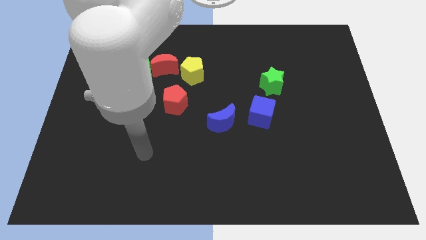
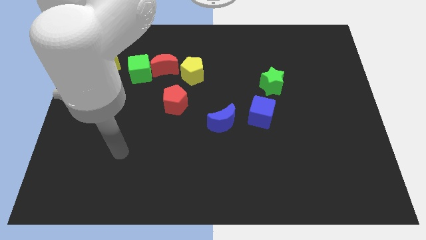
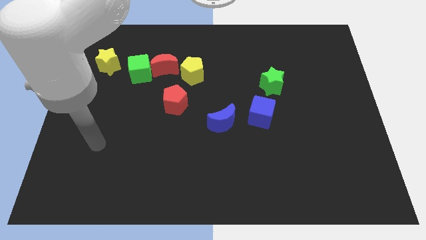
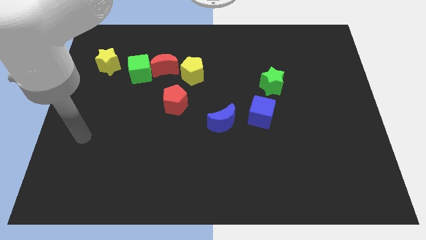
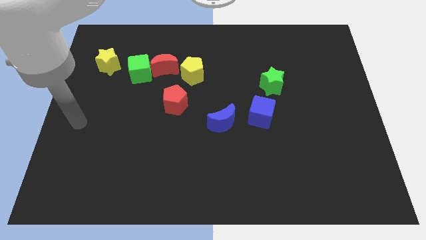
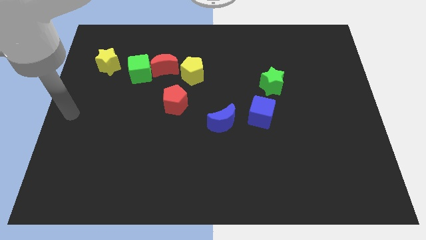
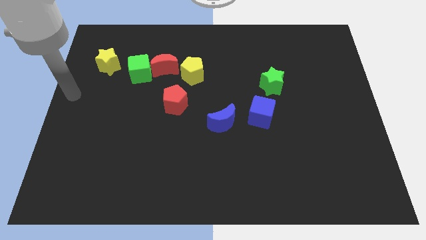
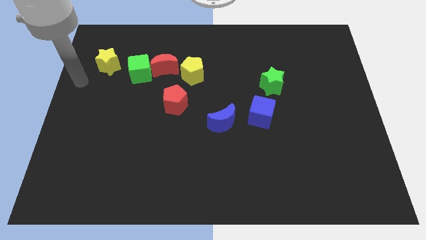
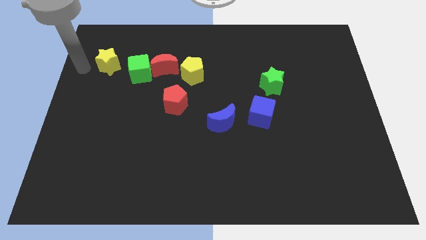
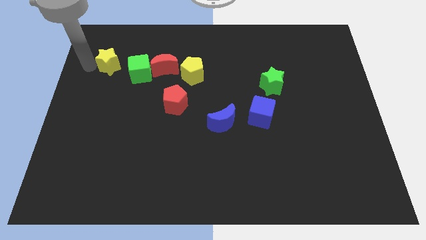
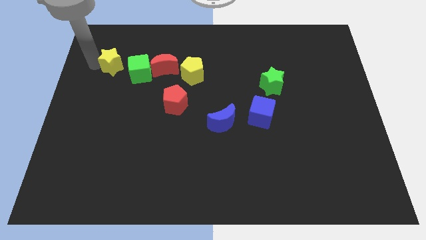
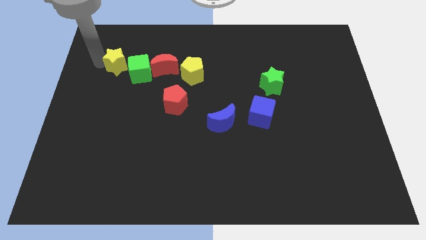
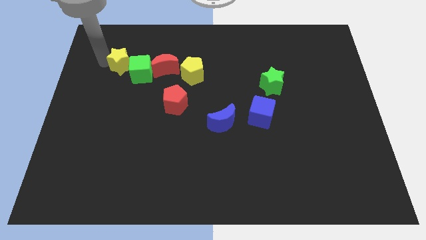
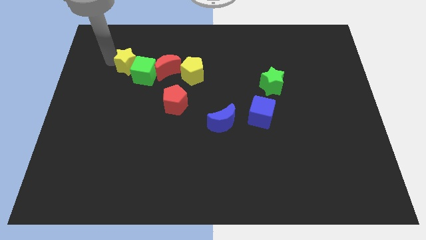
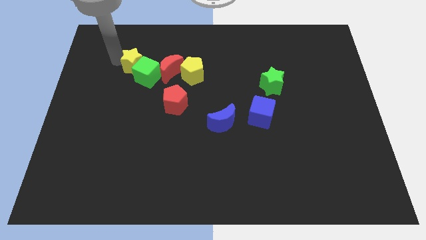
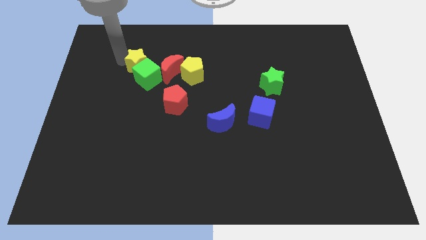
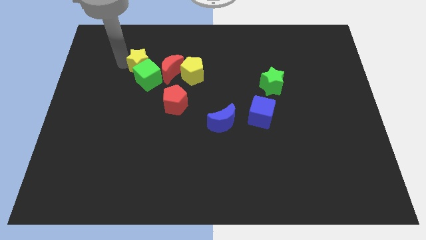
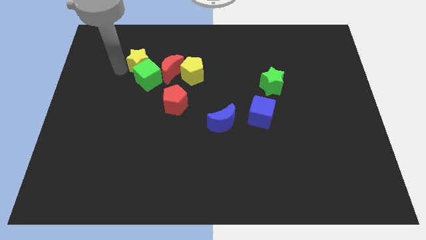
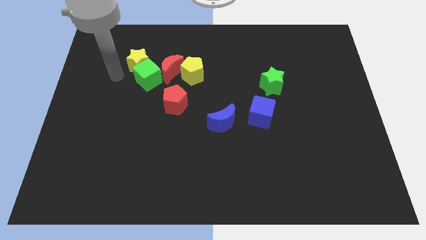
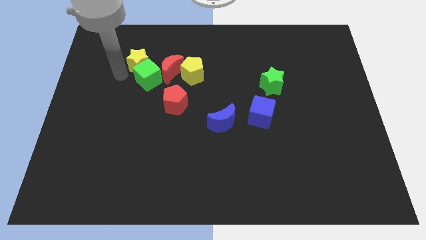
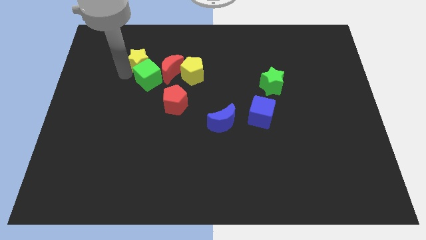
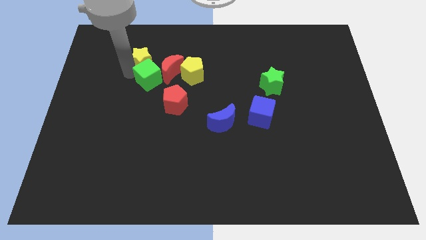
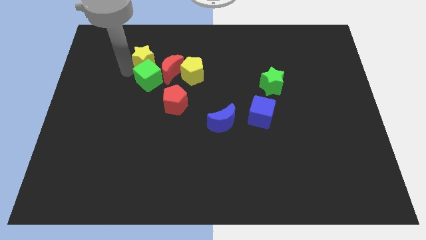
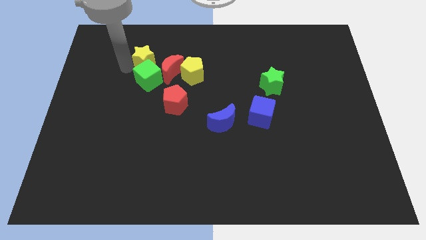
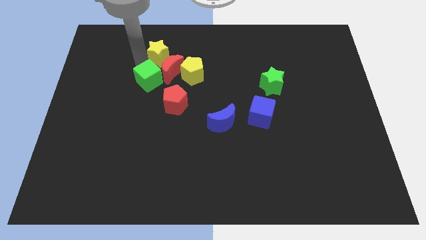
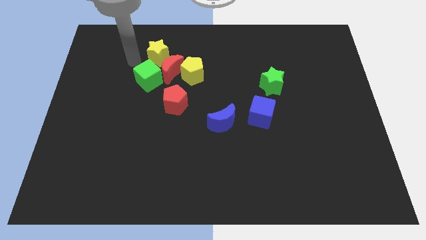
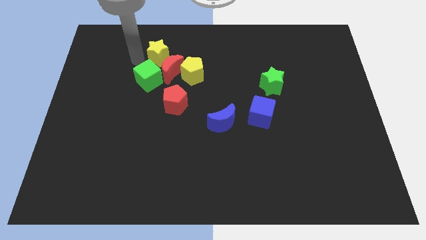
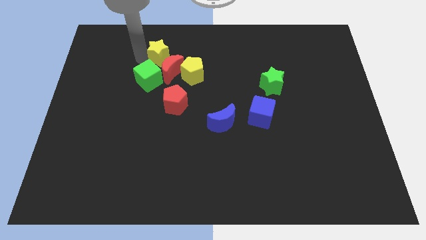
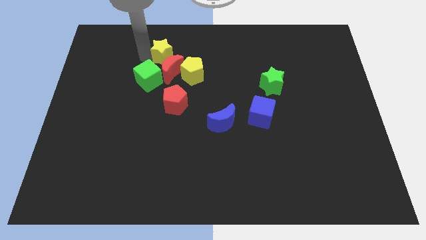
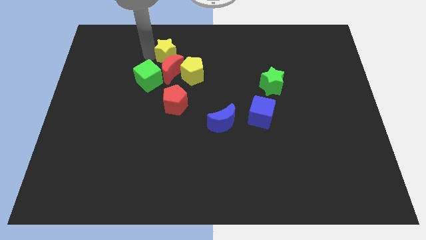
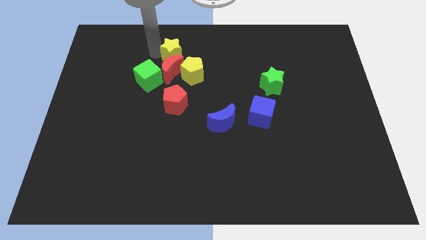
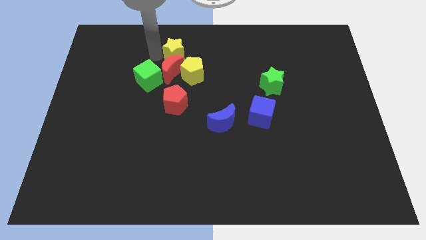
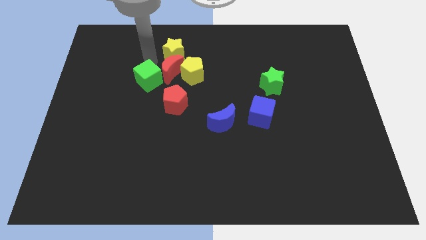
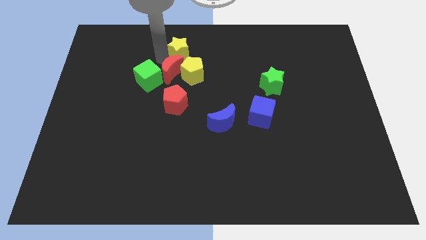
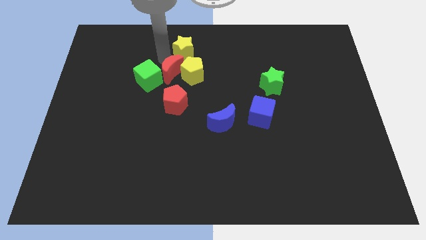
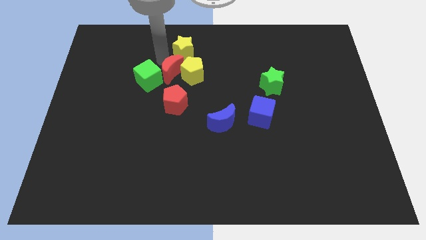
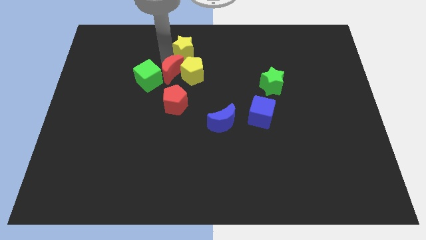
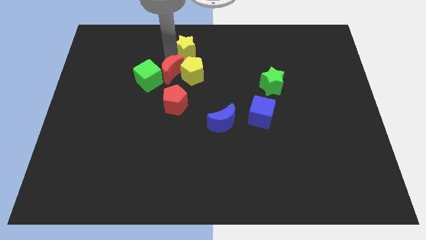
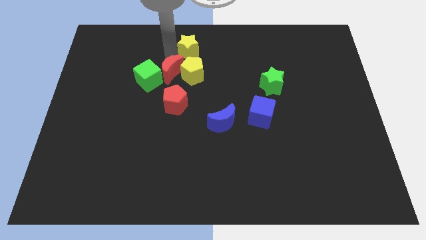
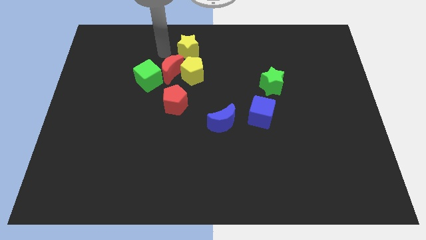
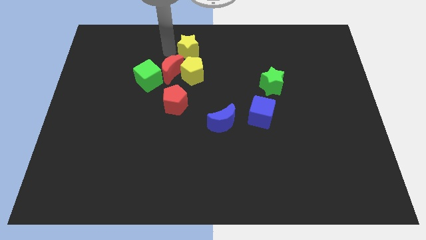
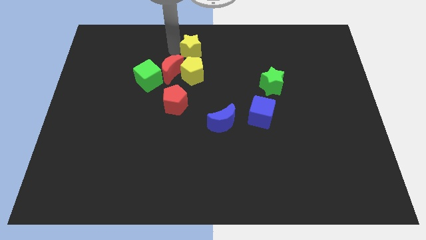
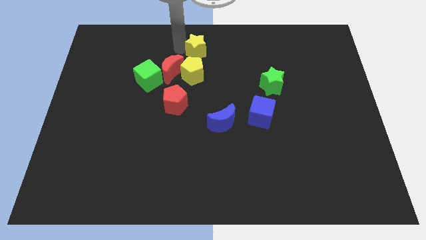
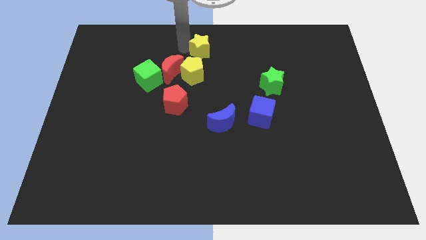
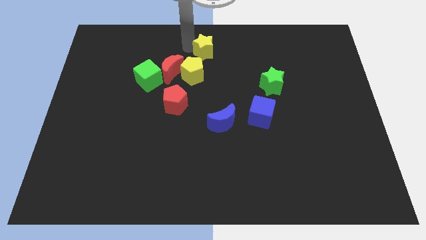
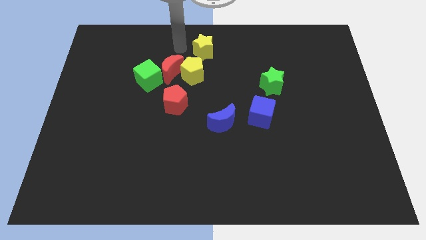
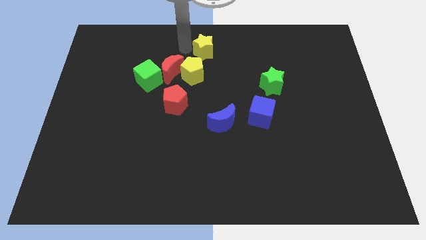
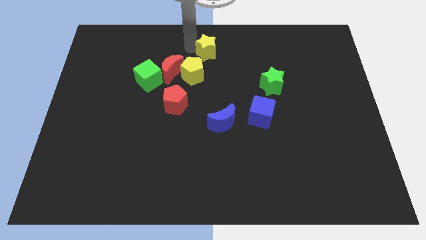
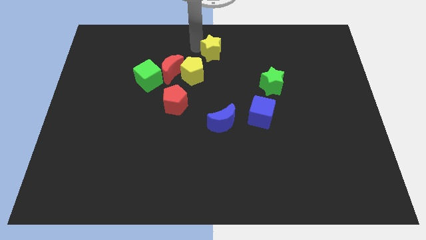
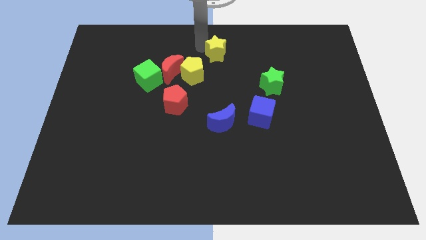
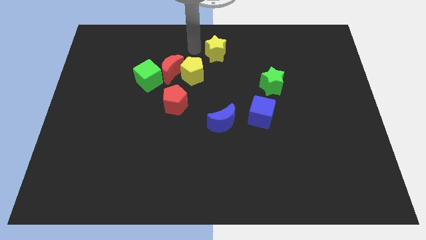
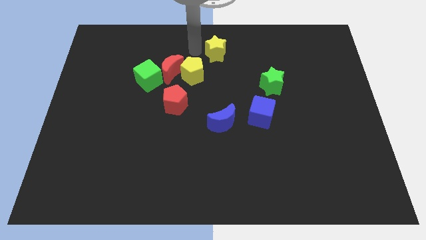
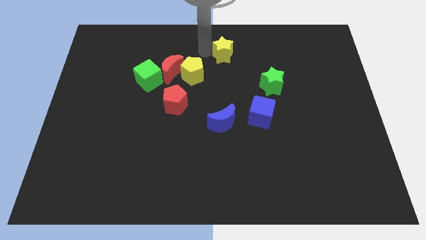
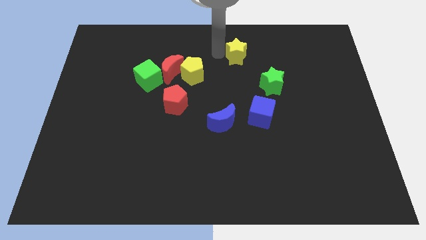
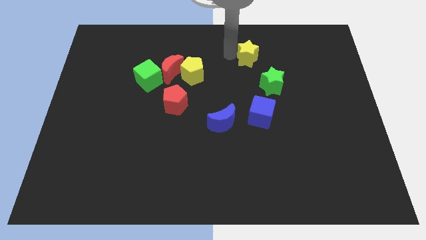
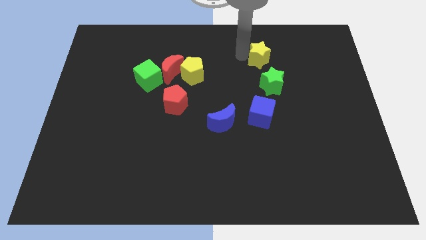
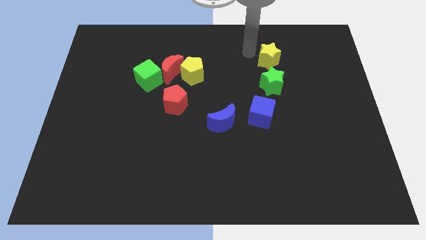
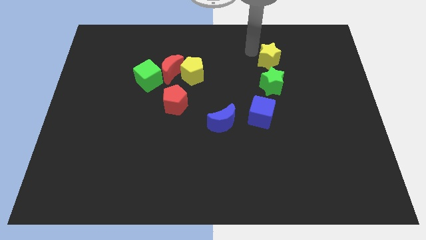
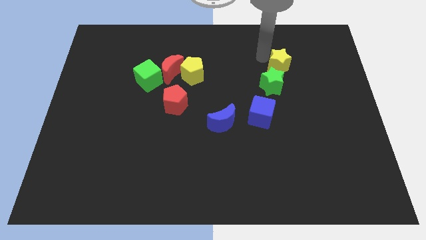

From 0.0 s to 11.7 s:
move the yellow star diagonally up and to the right of the green star

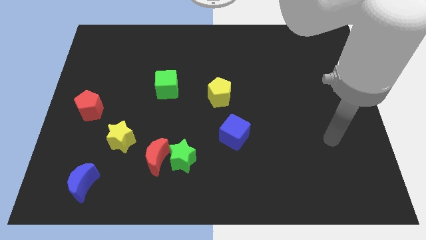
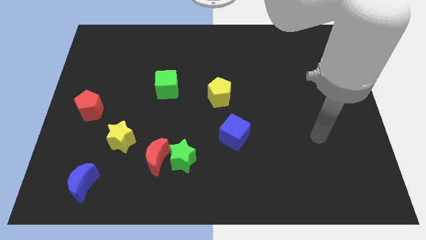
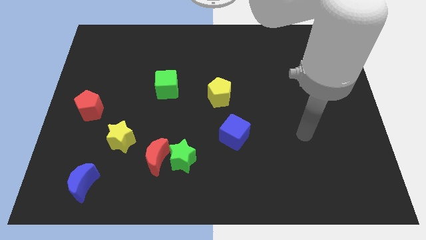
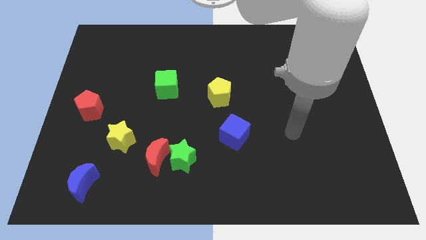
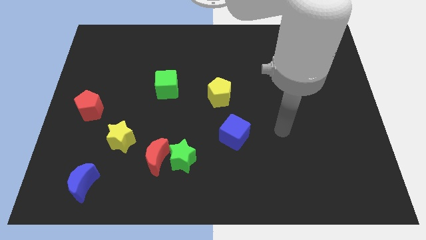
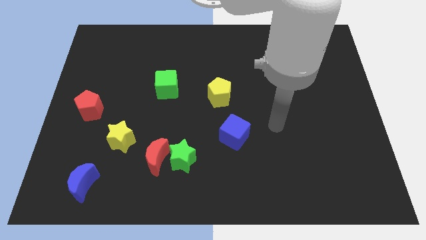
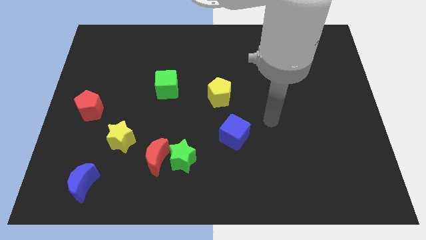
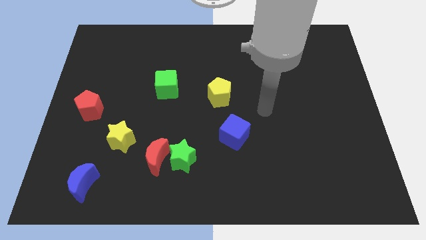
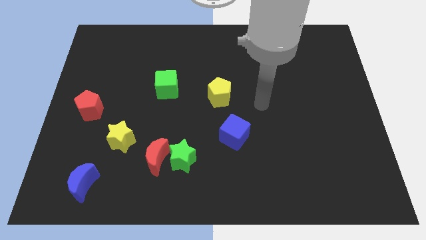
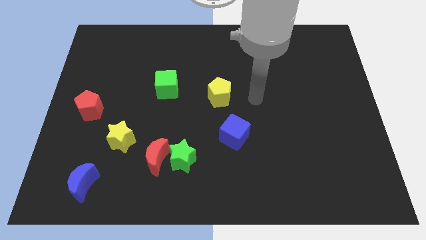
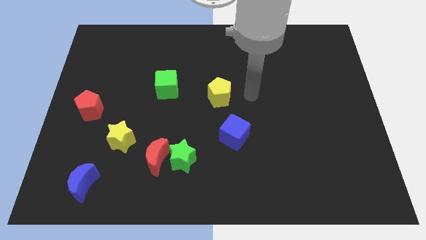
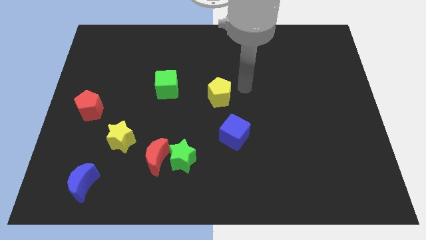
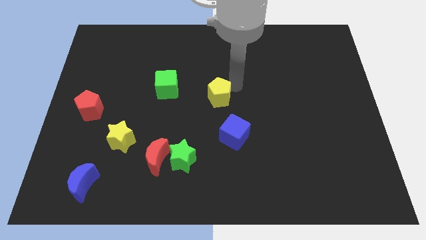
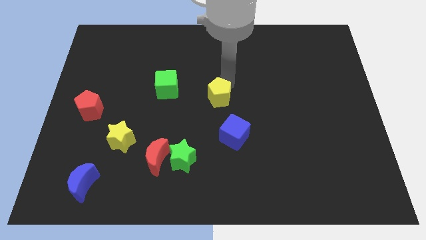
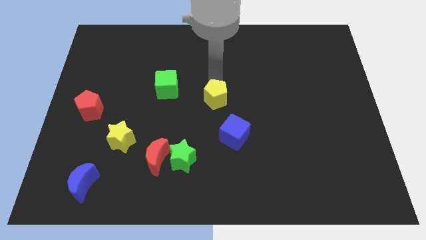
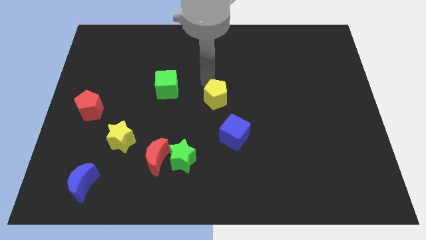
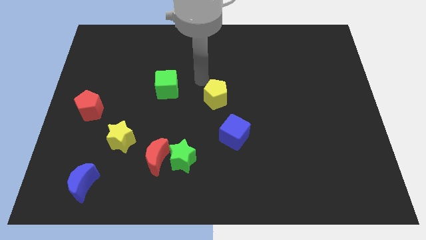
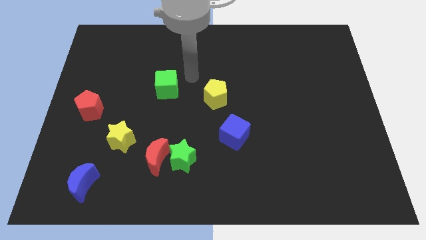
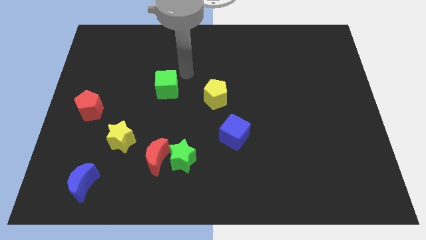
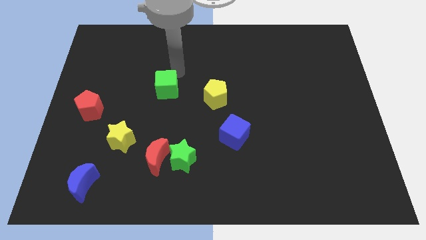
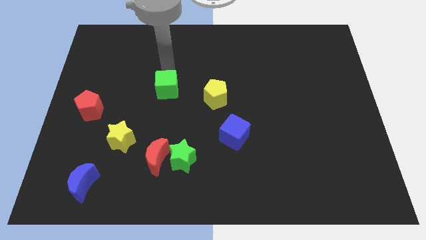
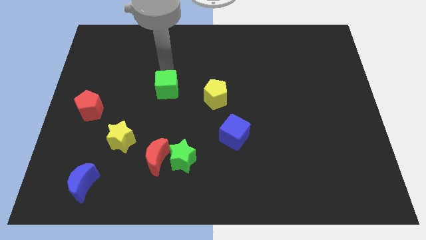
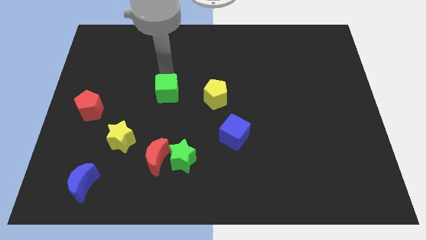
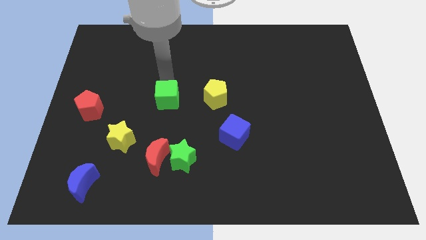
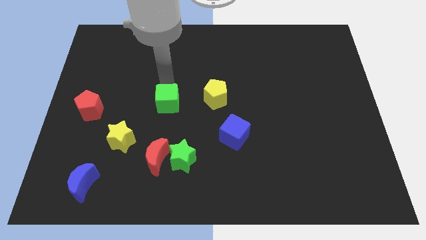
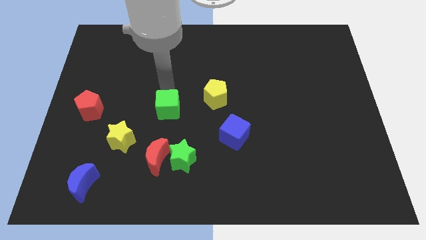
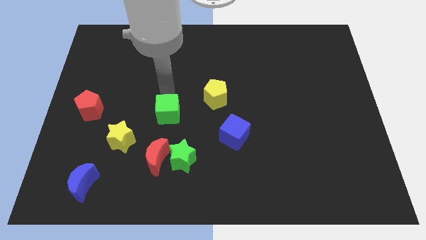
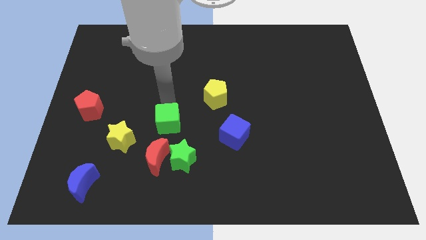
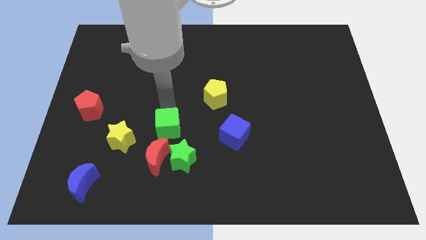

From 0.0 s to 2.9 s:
slide the green cube to the right of the yellow star
